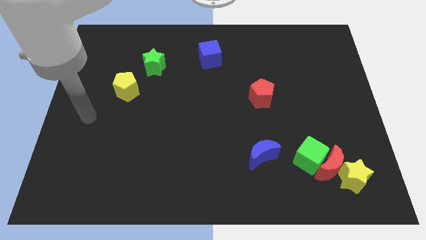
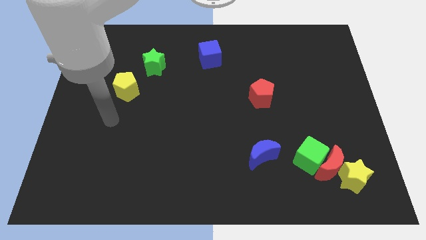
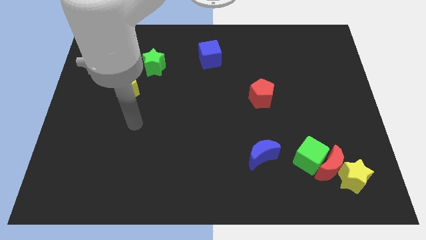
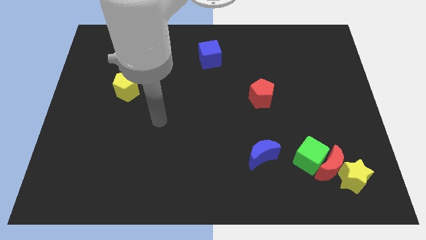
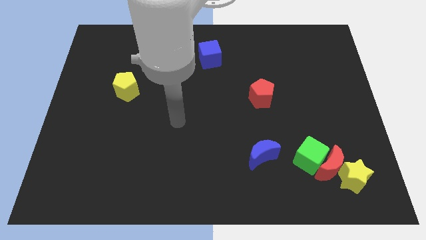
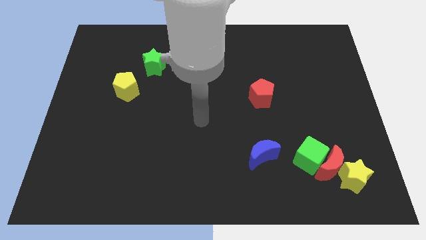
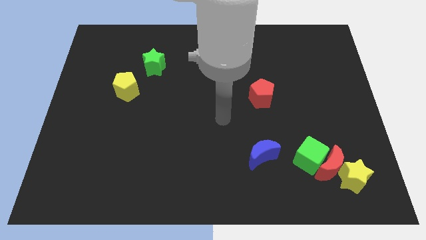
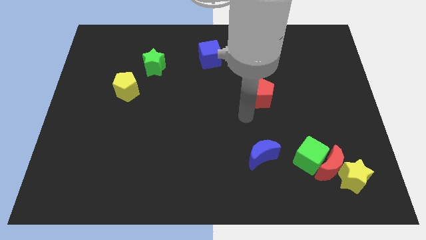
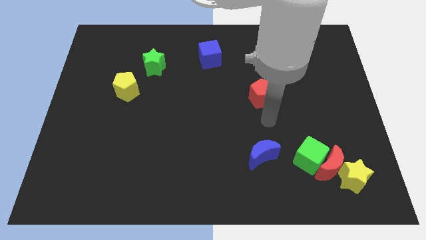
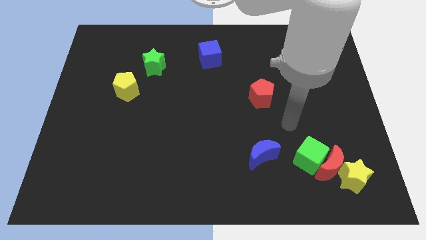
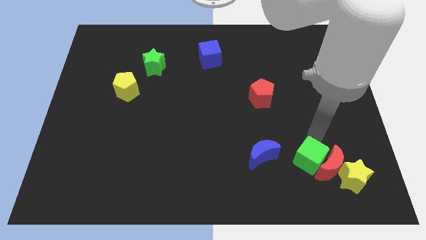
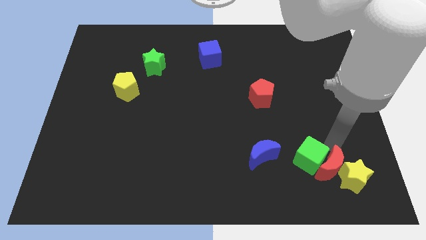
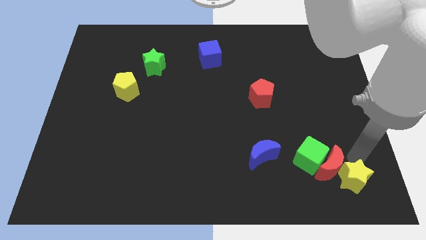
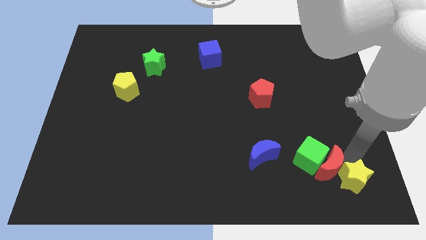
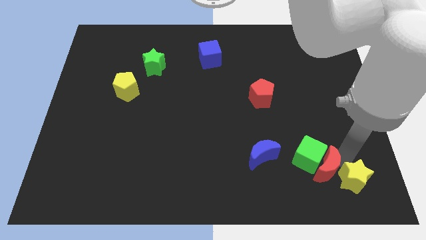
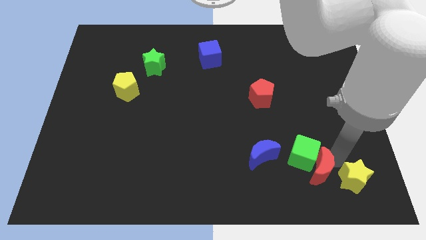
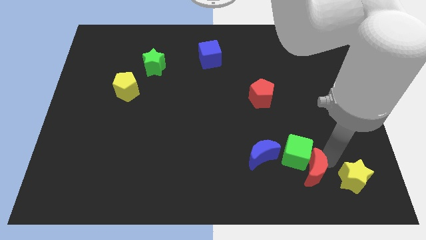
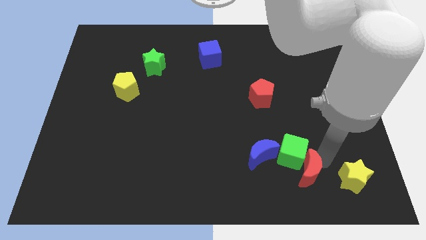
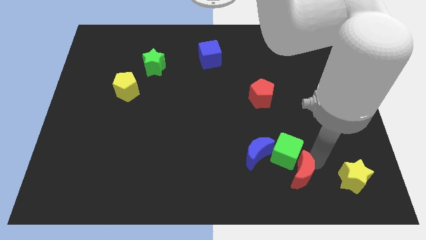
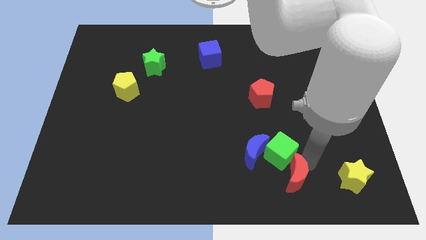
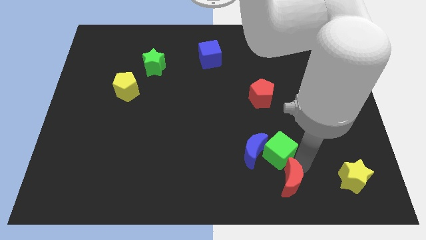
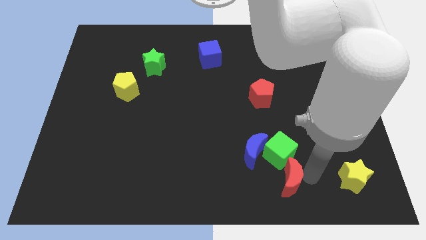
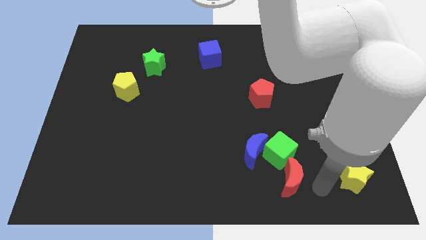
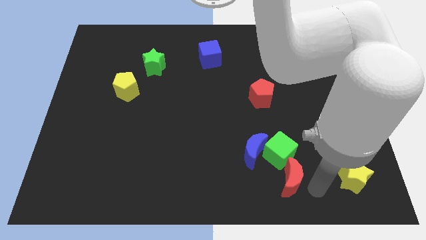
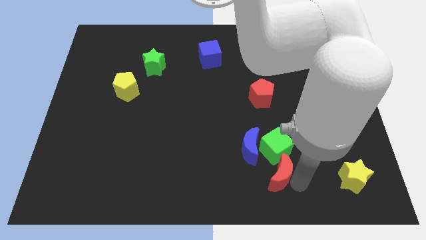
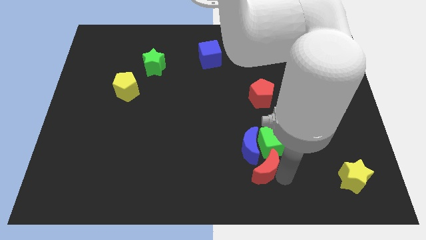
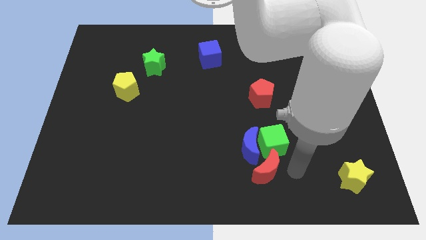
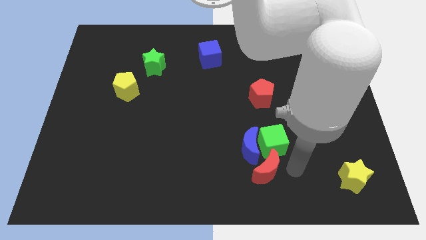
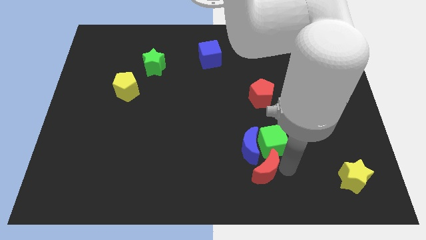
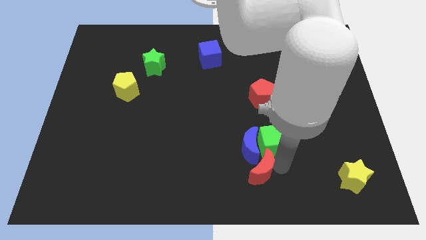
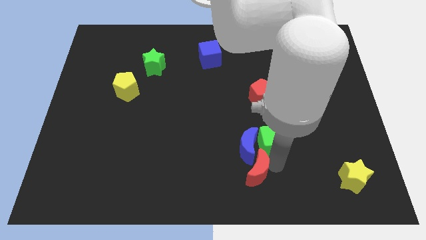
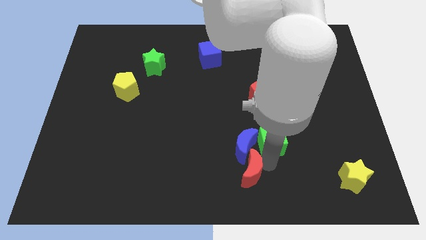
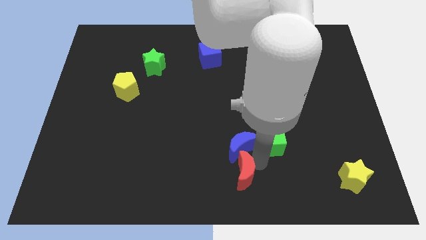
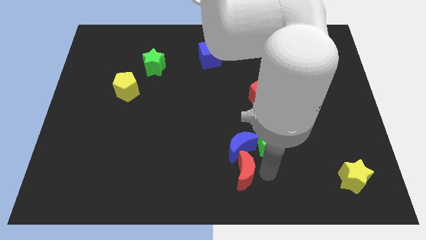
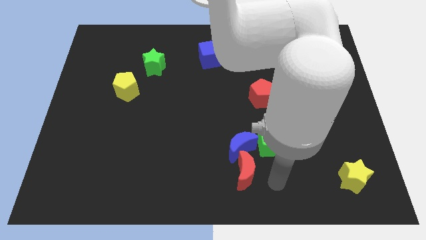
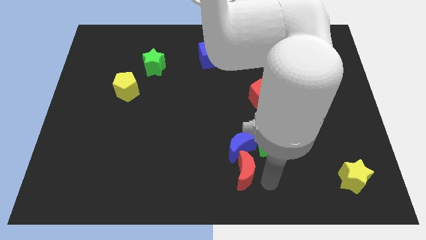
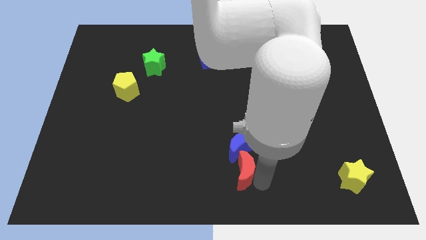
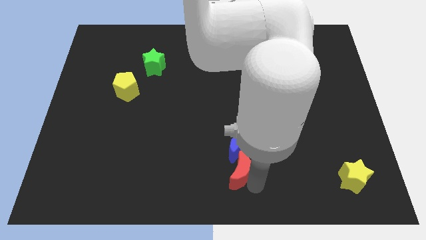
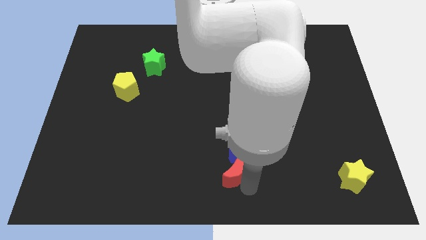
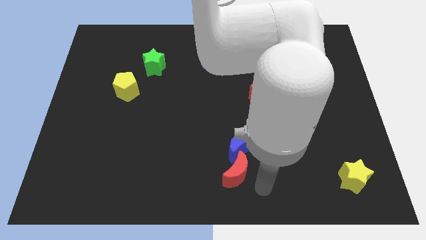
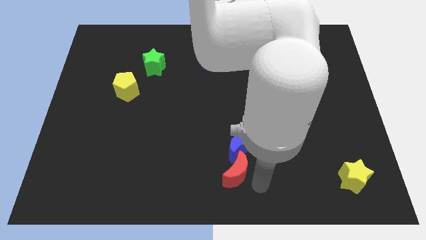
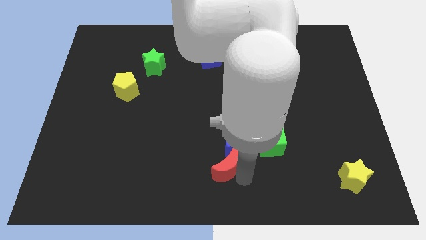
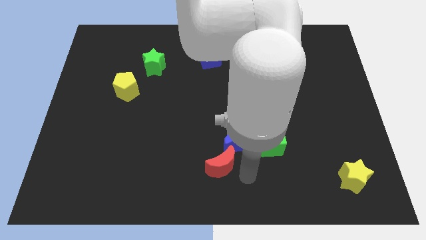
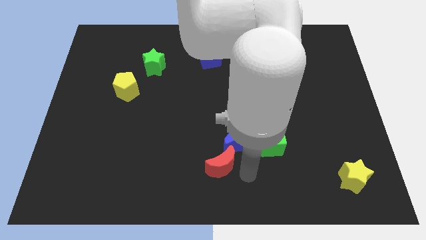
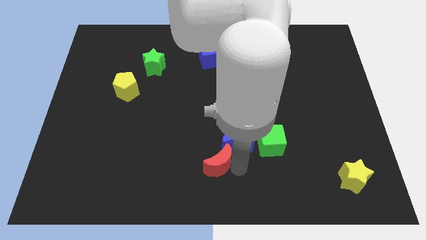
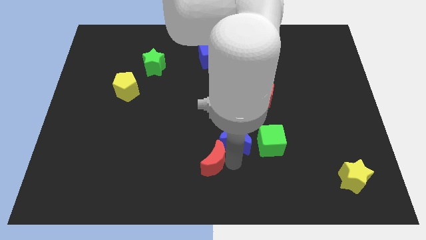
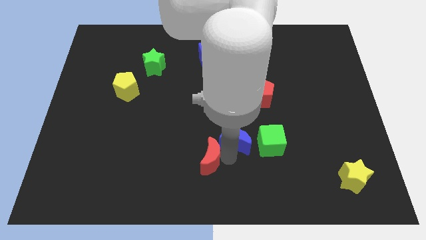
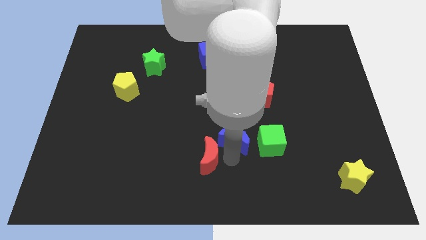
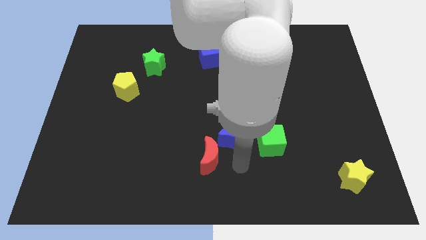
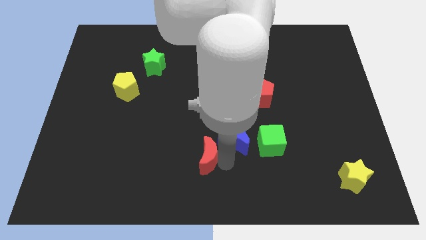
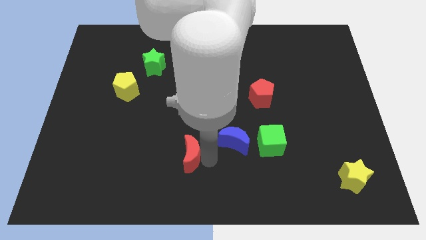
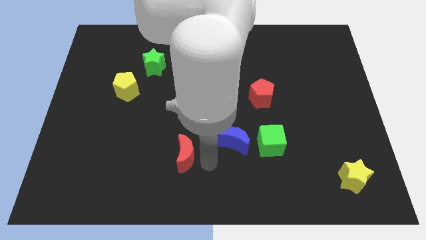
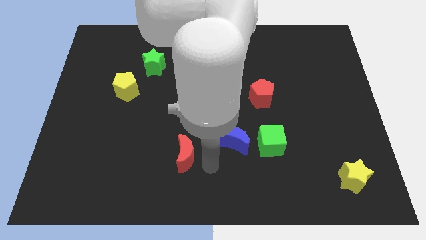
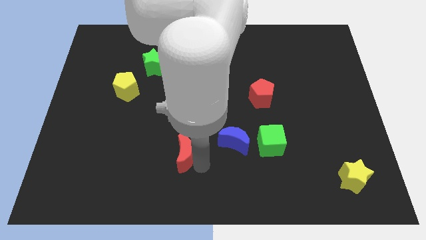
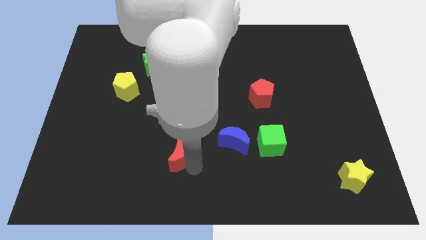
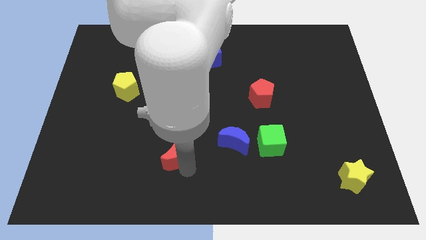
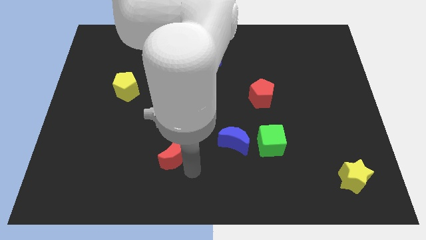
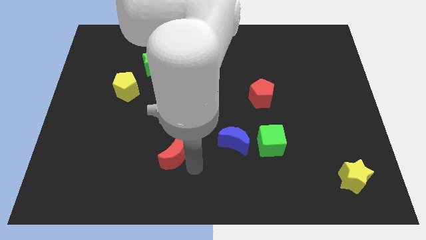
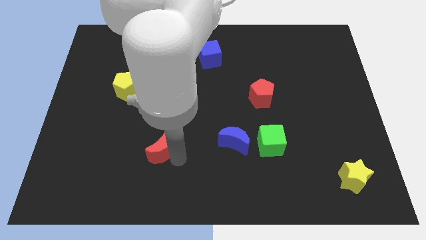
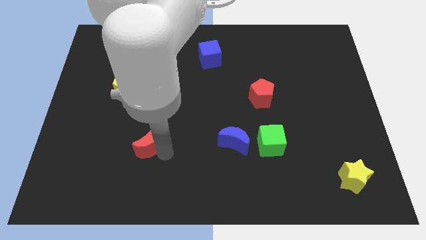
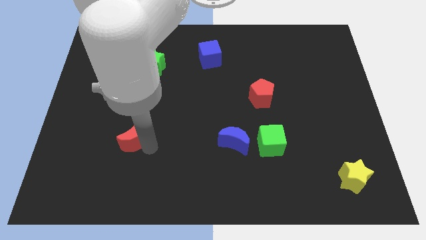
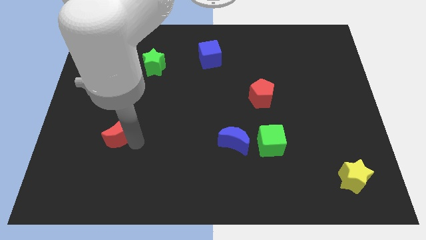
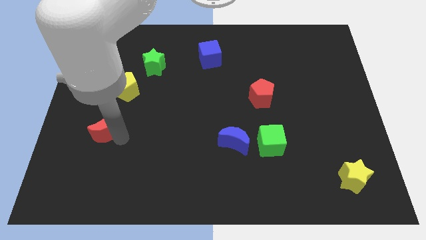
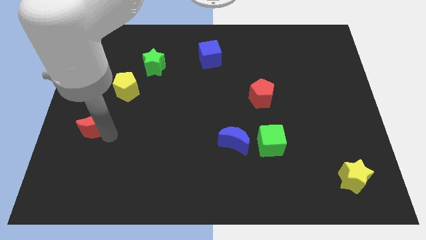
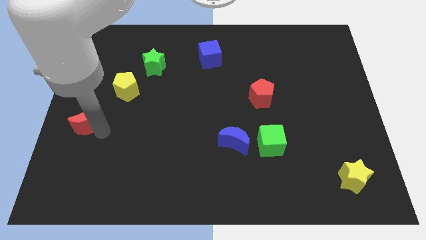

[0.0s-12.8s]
put the red moon to the center left
